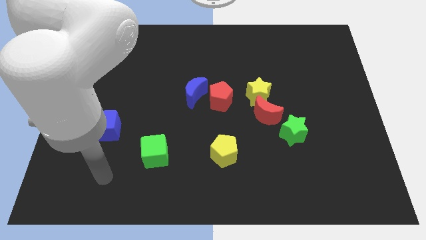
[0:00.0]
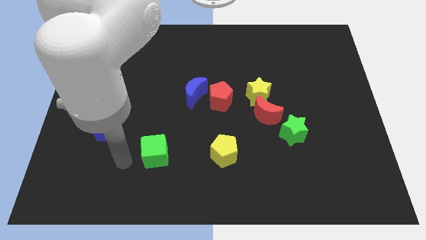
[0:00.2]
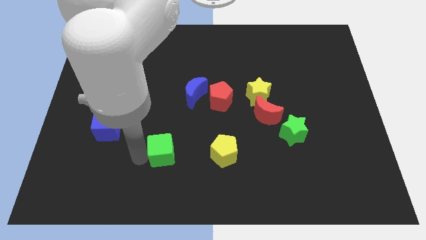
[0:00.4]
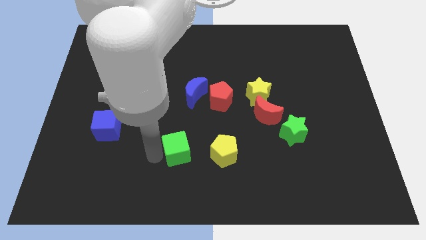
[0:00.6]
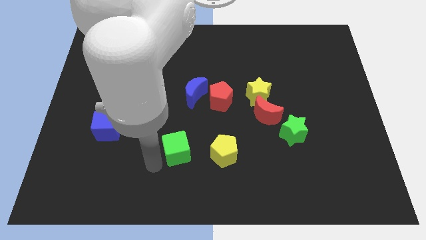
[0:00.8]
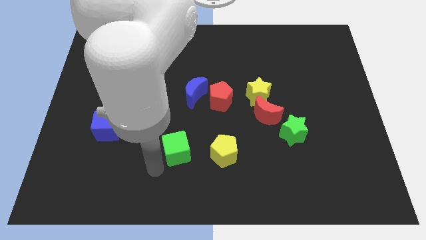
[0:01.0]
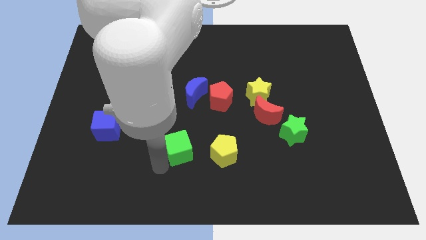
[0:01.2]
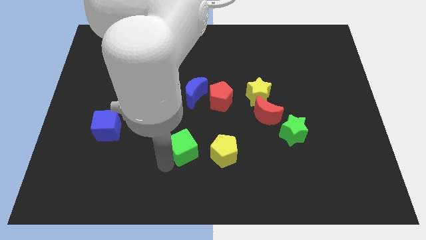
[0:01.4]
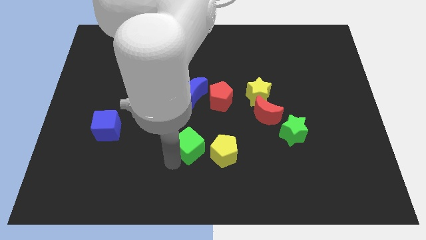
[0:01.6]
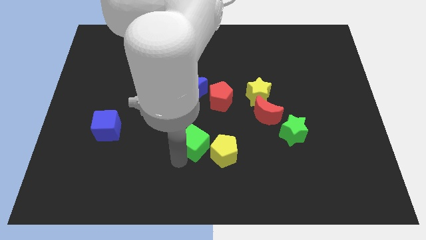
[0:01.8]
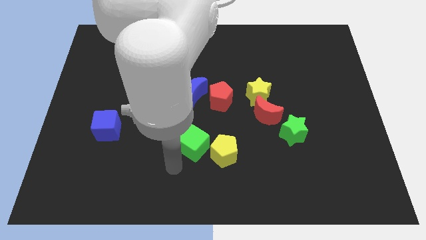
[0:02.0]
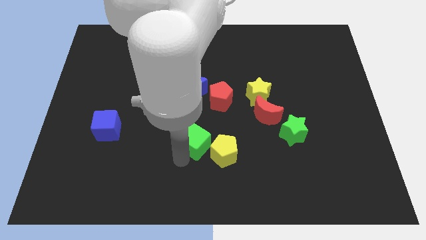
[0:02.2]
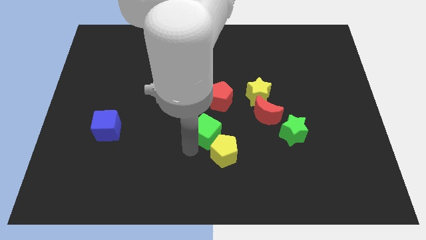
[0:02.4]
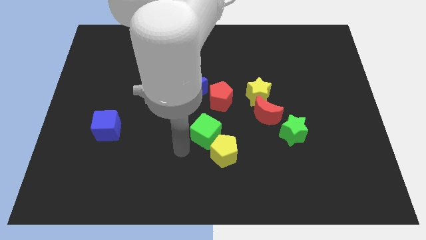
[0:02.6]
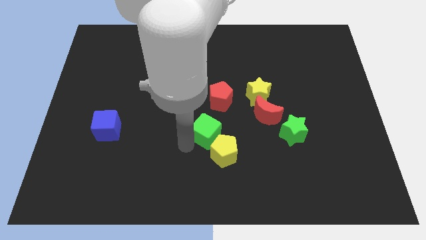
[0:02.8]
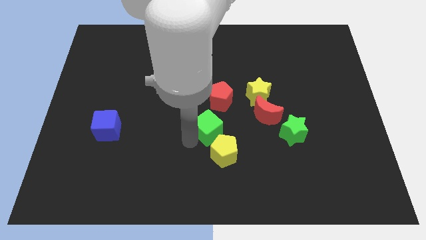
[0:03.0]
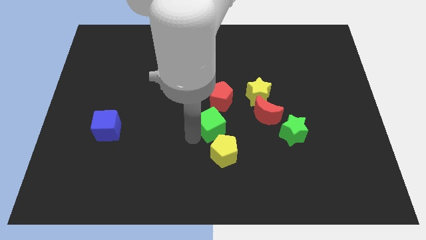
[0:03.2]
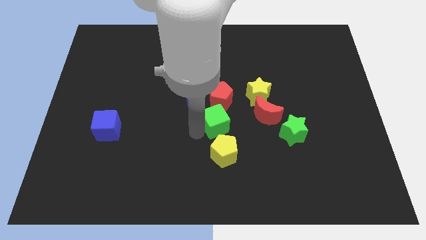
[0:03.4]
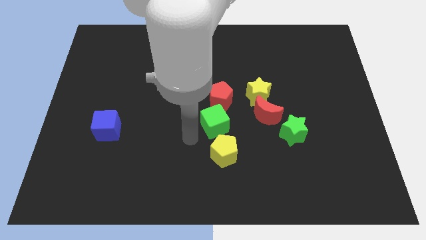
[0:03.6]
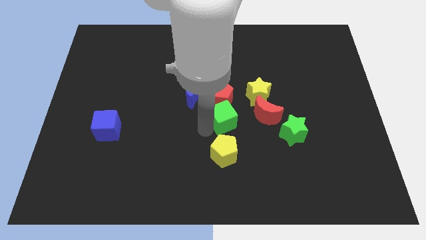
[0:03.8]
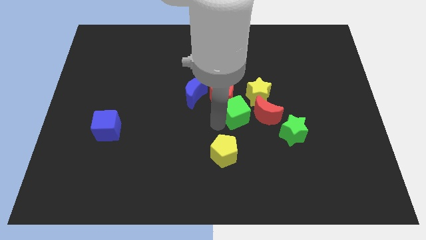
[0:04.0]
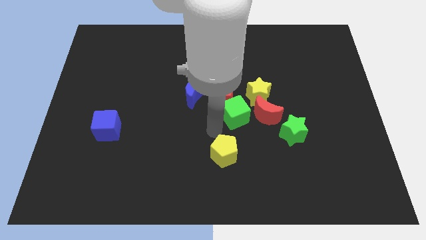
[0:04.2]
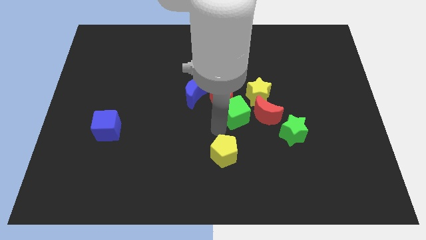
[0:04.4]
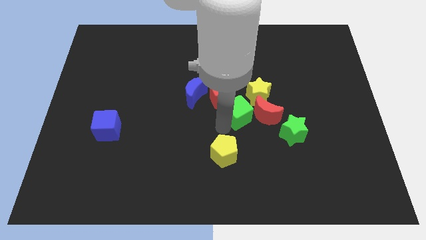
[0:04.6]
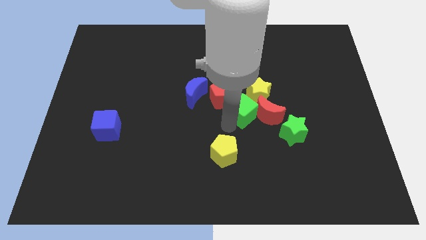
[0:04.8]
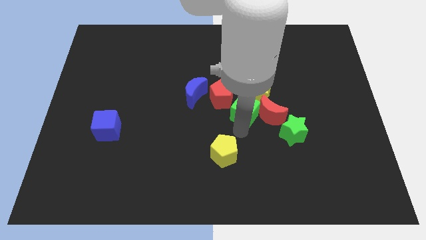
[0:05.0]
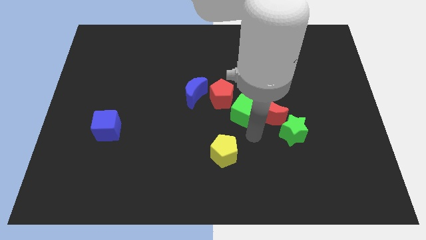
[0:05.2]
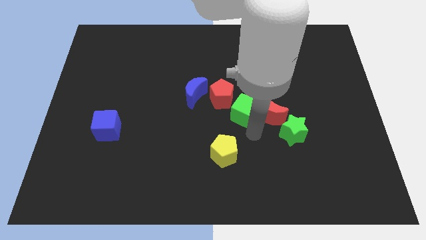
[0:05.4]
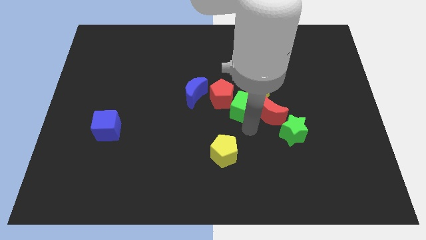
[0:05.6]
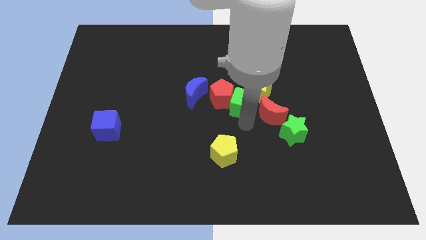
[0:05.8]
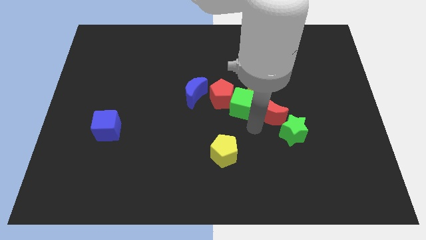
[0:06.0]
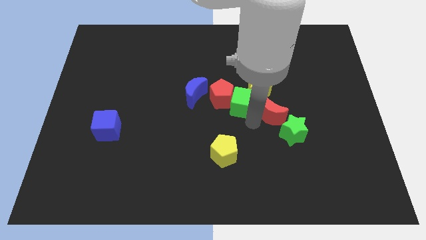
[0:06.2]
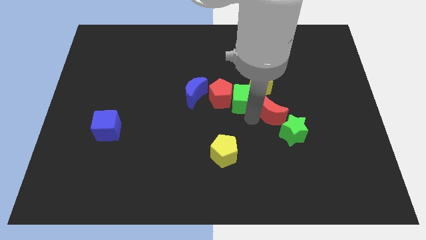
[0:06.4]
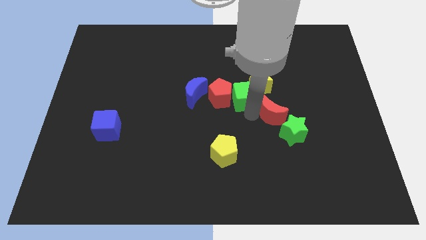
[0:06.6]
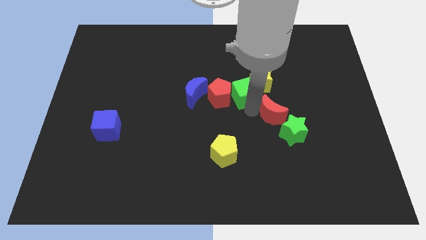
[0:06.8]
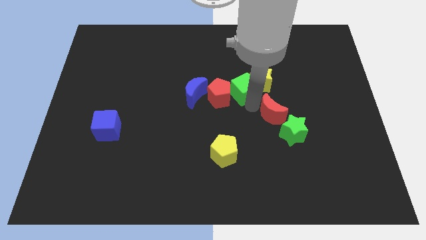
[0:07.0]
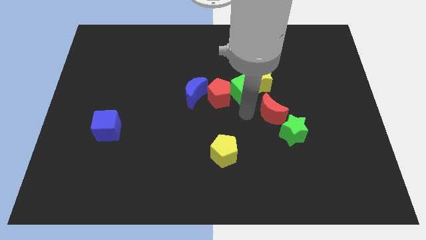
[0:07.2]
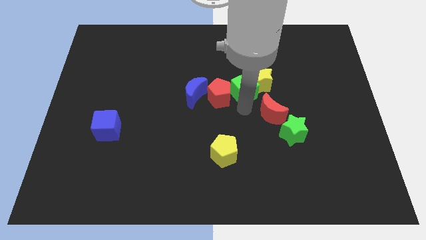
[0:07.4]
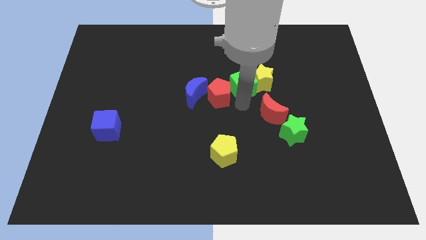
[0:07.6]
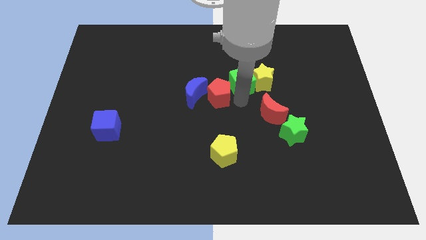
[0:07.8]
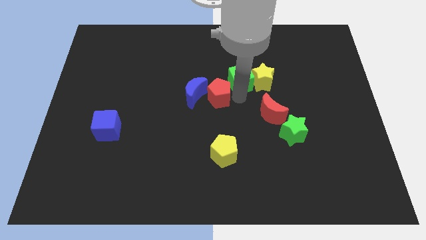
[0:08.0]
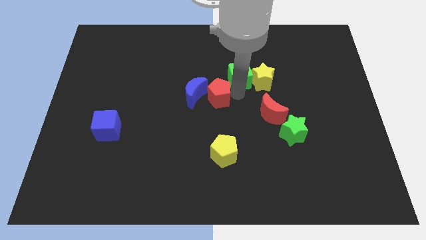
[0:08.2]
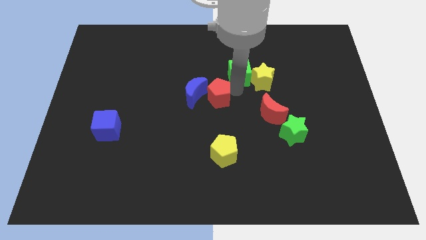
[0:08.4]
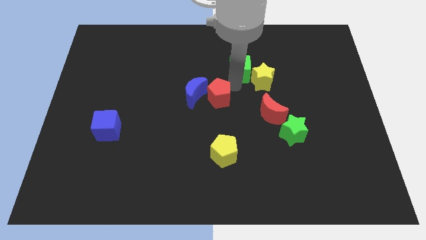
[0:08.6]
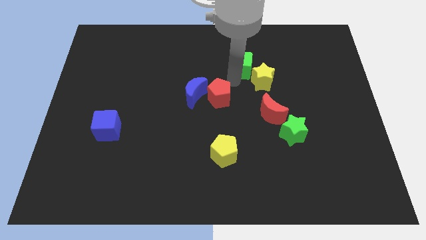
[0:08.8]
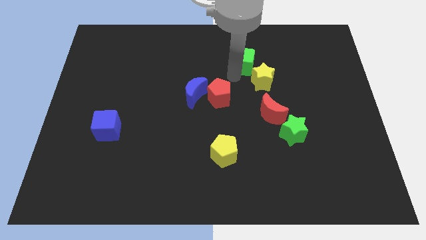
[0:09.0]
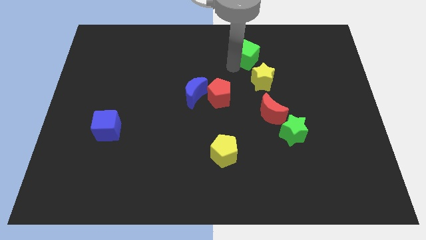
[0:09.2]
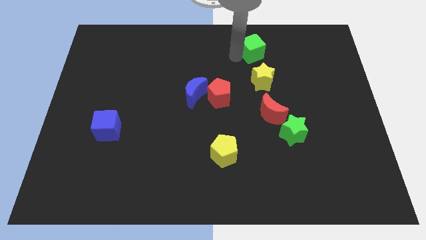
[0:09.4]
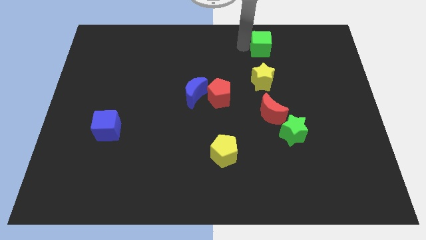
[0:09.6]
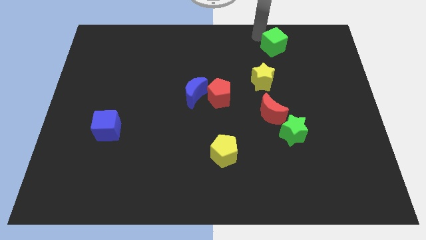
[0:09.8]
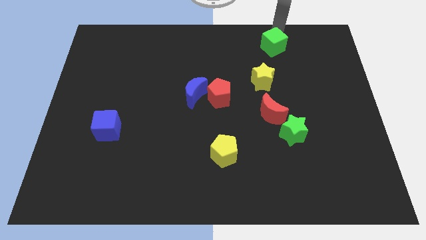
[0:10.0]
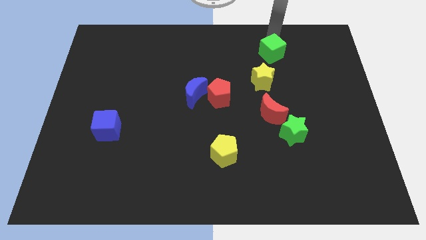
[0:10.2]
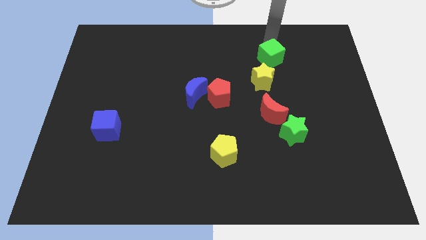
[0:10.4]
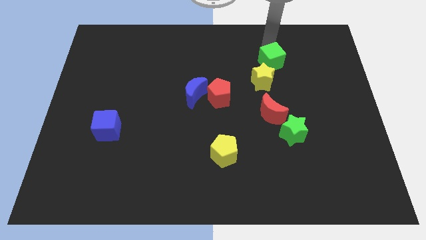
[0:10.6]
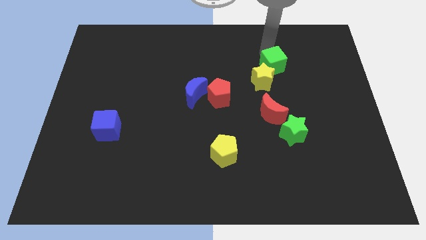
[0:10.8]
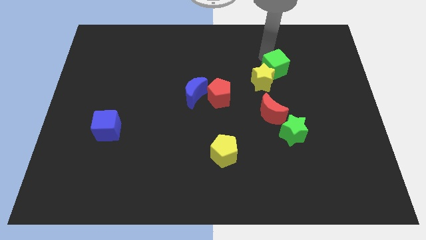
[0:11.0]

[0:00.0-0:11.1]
put the green cube right of the yellow star

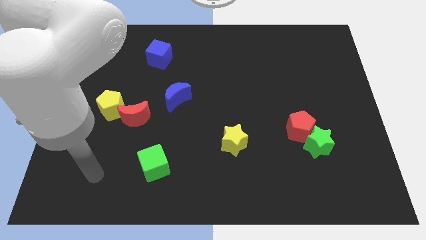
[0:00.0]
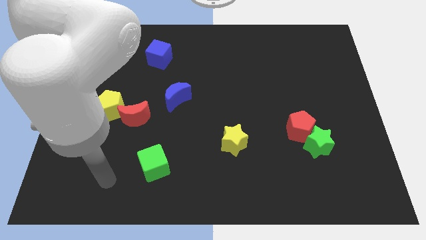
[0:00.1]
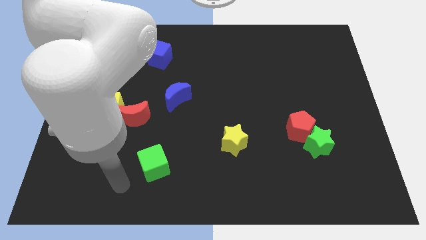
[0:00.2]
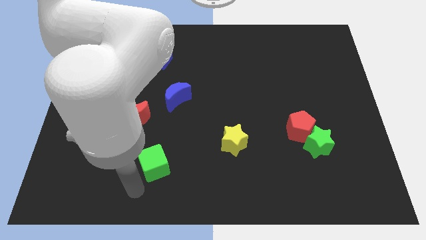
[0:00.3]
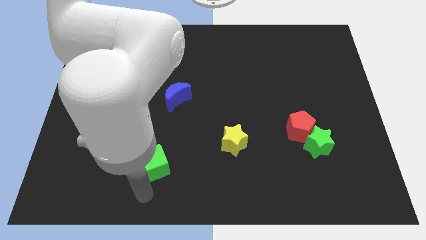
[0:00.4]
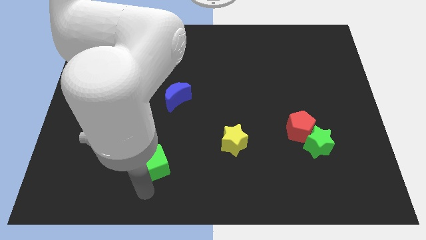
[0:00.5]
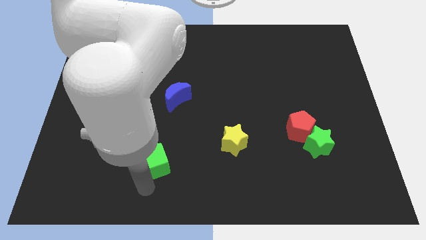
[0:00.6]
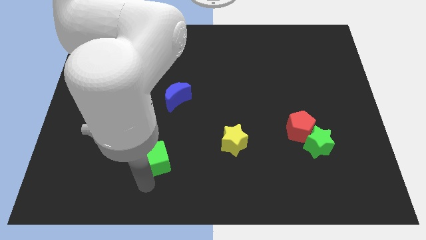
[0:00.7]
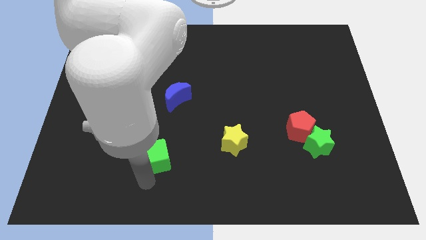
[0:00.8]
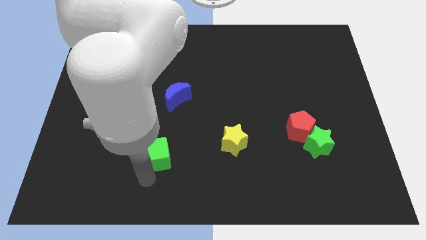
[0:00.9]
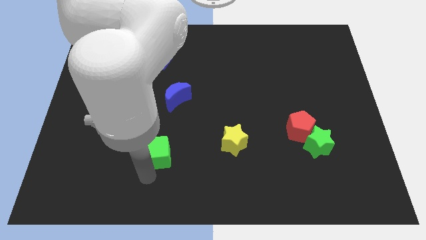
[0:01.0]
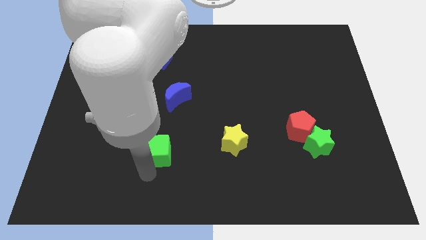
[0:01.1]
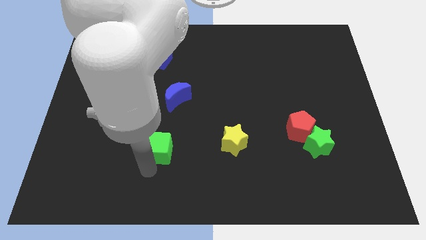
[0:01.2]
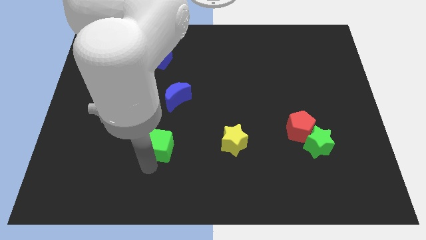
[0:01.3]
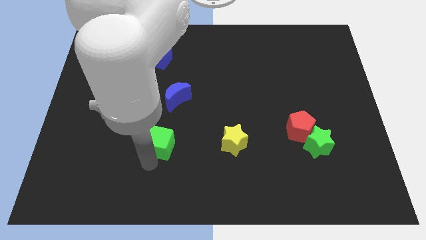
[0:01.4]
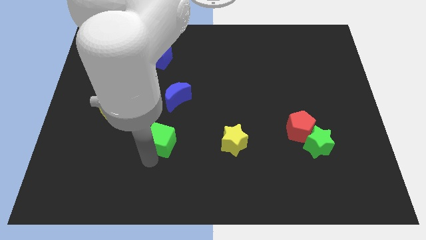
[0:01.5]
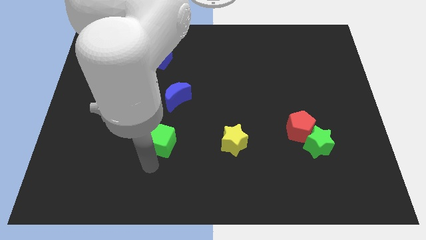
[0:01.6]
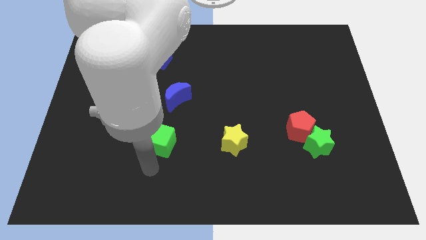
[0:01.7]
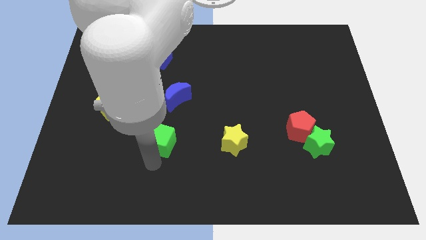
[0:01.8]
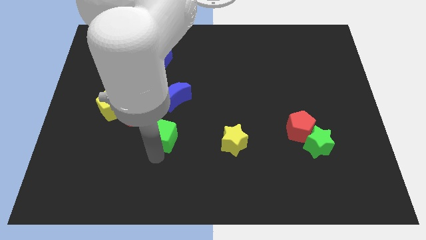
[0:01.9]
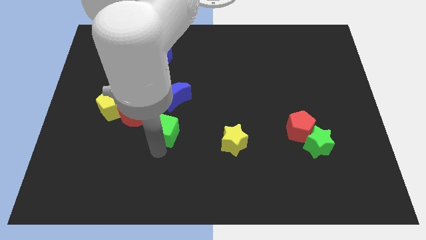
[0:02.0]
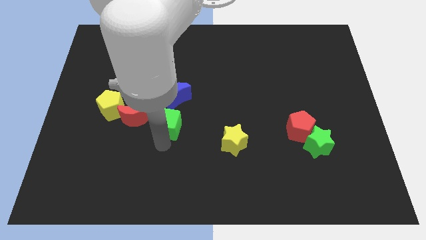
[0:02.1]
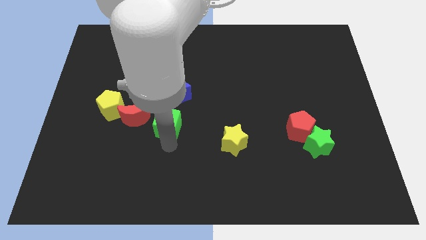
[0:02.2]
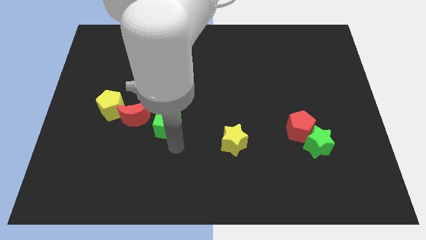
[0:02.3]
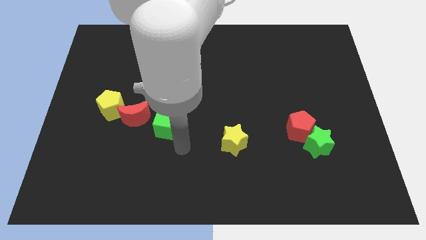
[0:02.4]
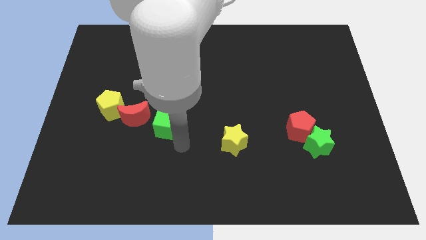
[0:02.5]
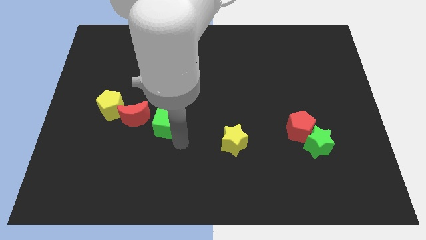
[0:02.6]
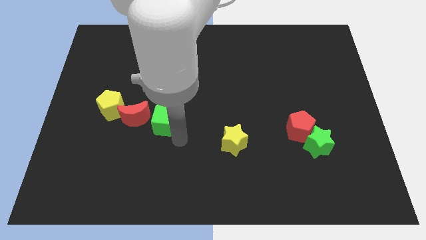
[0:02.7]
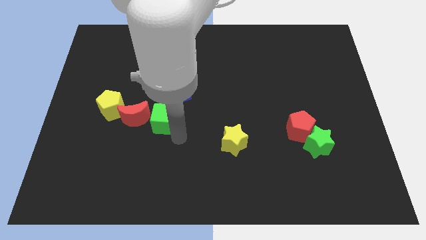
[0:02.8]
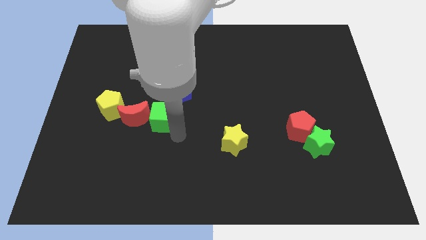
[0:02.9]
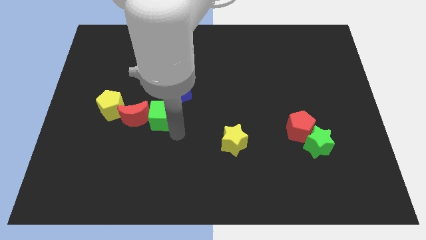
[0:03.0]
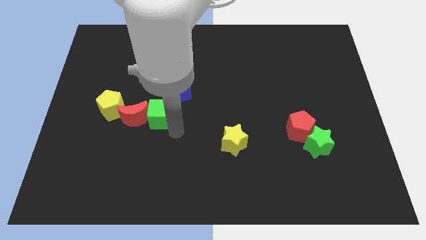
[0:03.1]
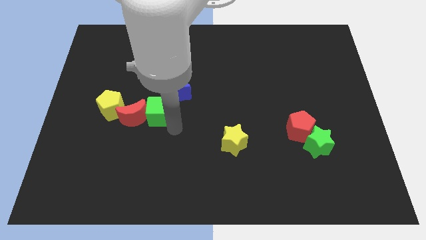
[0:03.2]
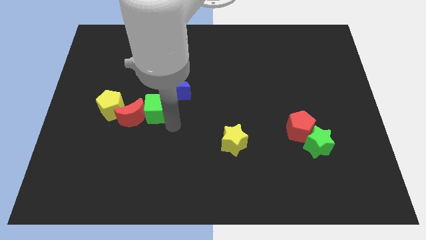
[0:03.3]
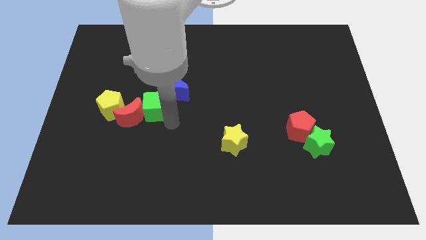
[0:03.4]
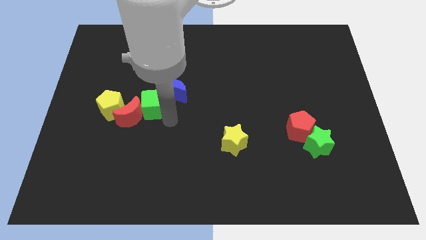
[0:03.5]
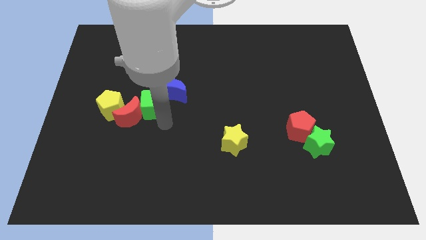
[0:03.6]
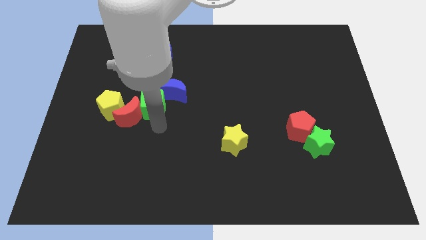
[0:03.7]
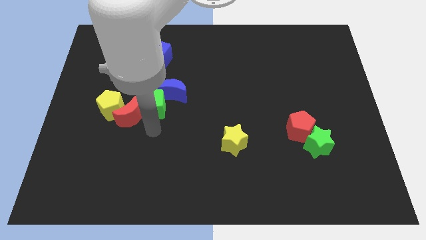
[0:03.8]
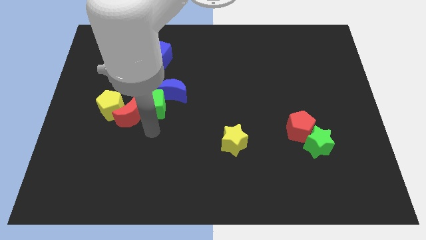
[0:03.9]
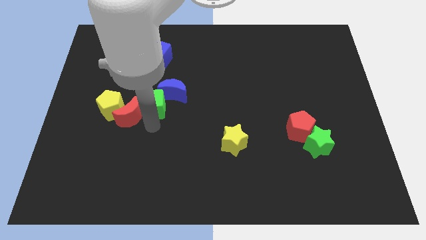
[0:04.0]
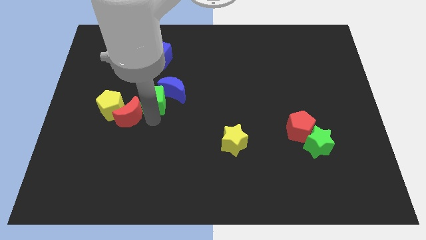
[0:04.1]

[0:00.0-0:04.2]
put the green cube to the bottom side of the blue cube
